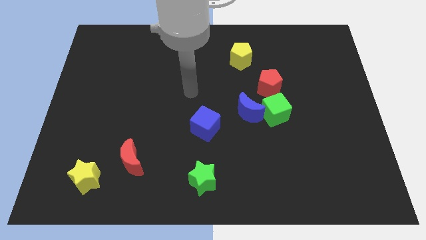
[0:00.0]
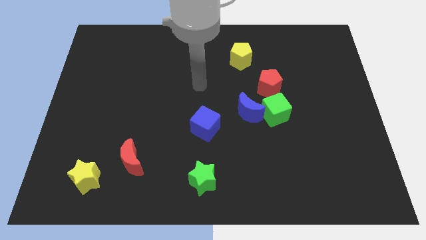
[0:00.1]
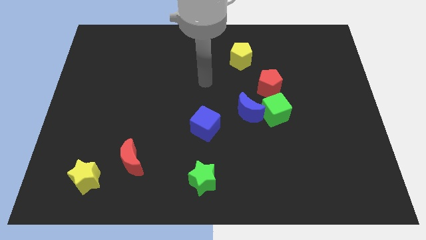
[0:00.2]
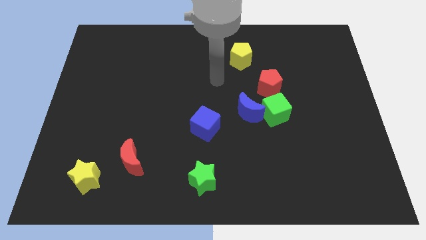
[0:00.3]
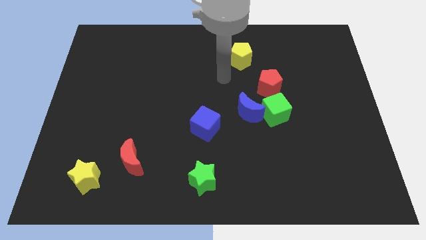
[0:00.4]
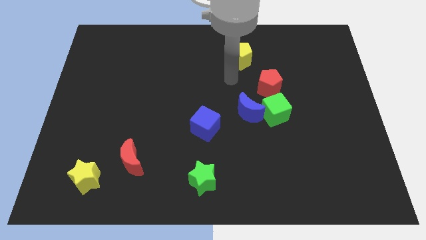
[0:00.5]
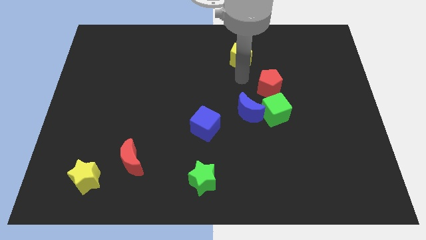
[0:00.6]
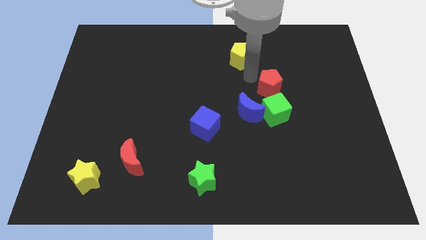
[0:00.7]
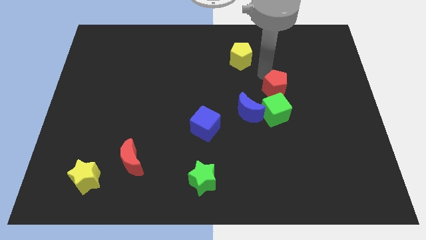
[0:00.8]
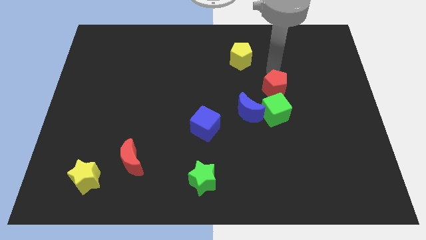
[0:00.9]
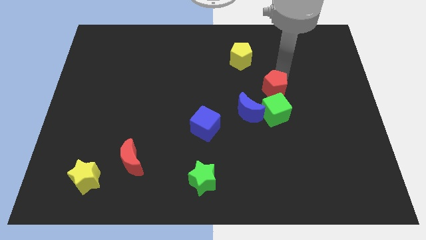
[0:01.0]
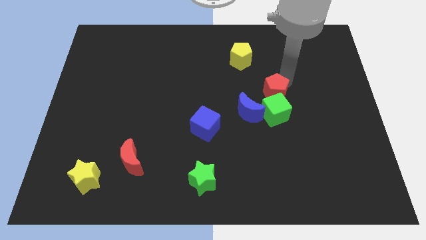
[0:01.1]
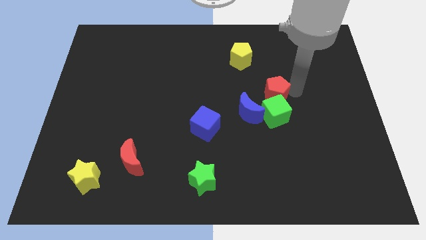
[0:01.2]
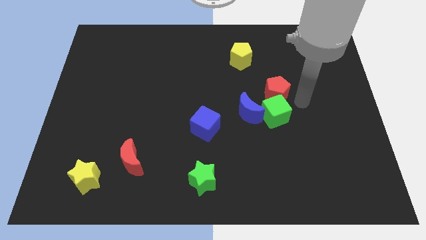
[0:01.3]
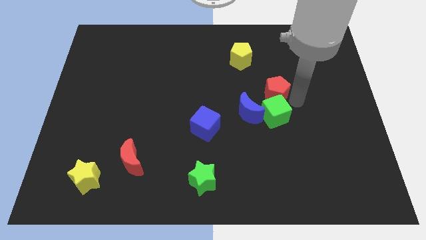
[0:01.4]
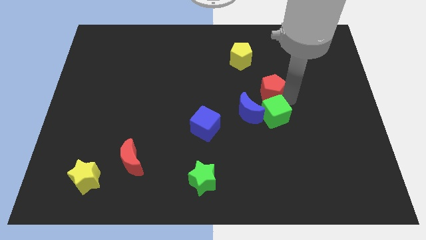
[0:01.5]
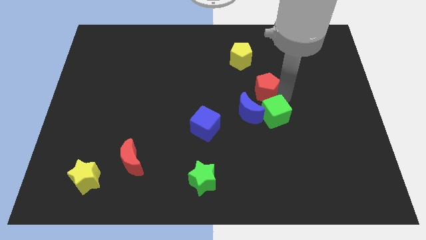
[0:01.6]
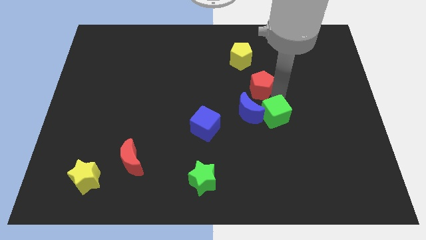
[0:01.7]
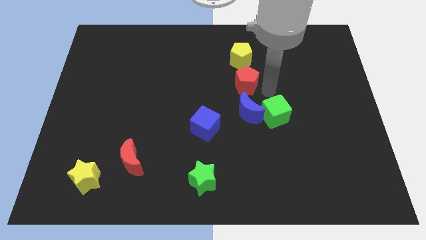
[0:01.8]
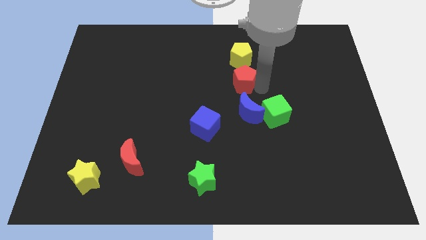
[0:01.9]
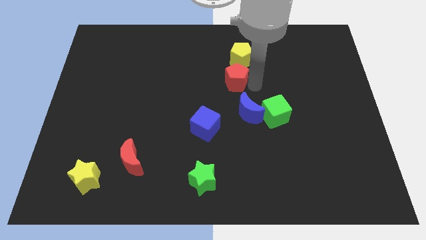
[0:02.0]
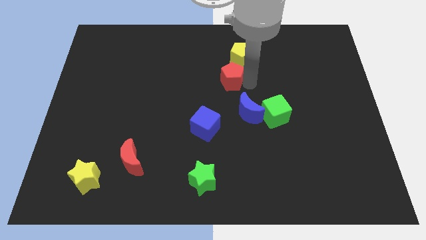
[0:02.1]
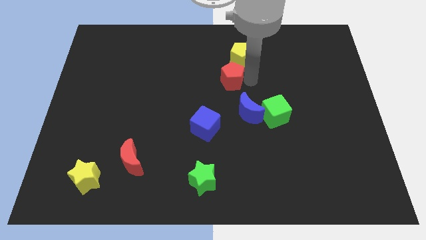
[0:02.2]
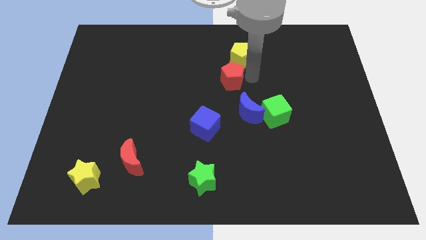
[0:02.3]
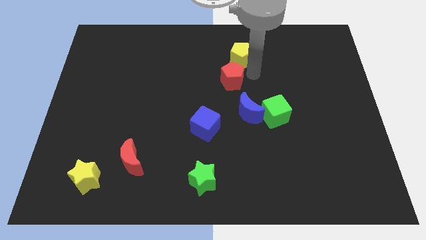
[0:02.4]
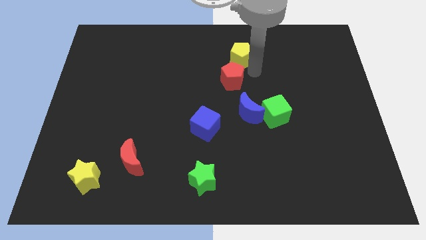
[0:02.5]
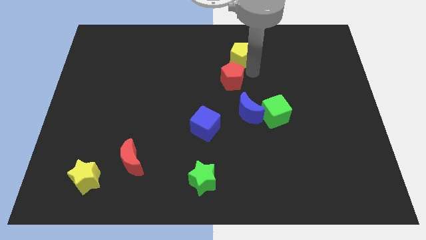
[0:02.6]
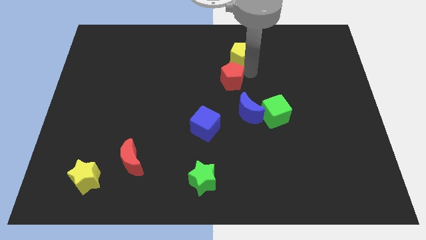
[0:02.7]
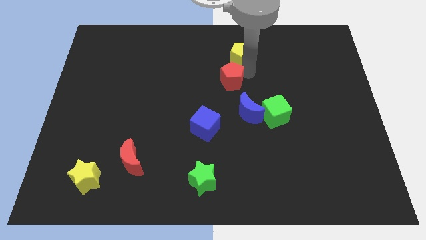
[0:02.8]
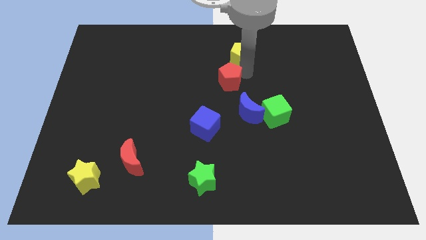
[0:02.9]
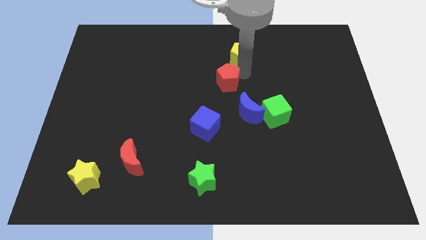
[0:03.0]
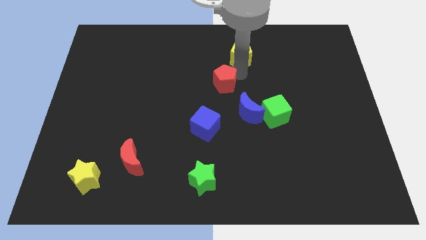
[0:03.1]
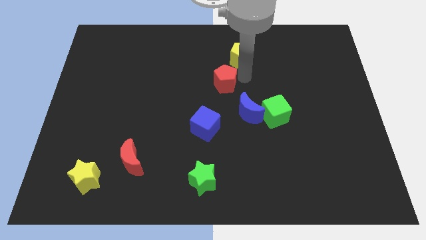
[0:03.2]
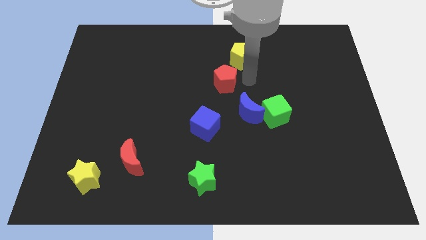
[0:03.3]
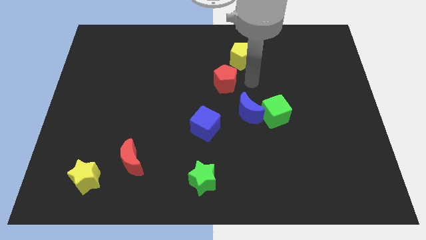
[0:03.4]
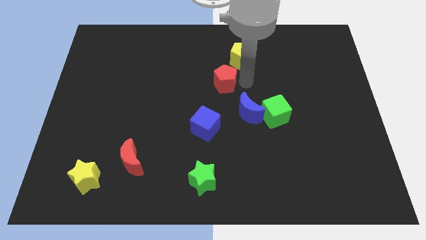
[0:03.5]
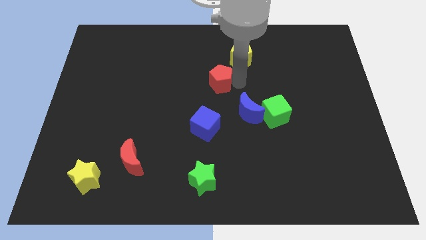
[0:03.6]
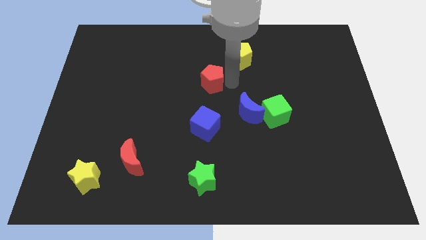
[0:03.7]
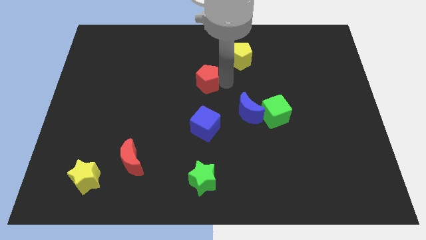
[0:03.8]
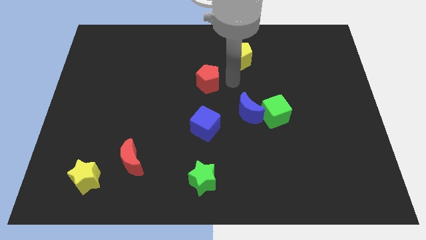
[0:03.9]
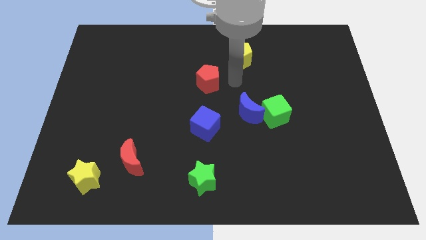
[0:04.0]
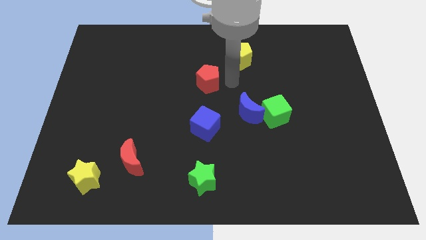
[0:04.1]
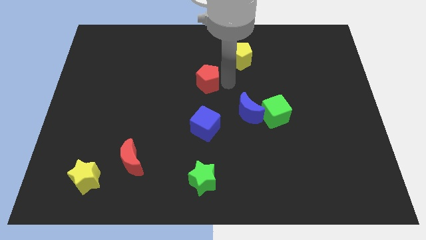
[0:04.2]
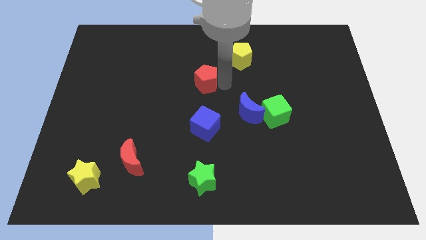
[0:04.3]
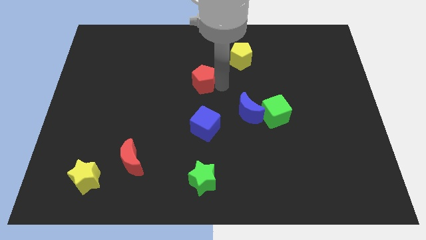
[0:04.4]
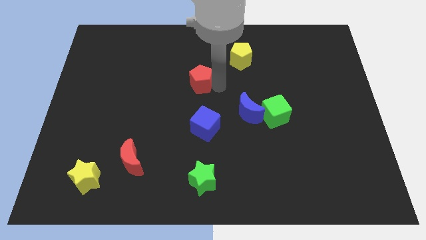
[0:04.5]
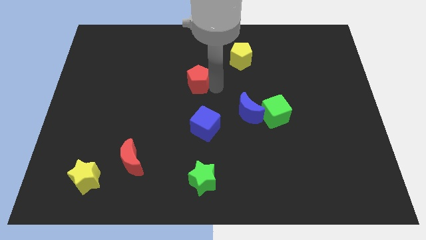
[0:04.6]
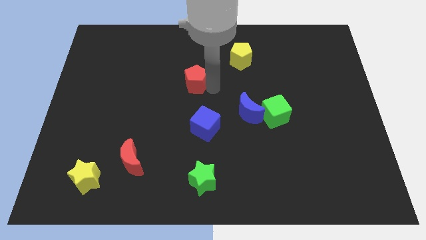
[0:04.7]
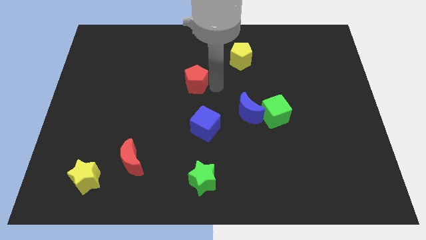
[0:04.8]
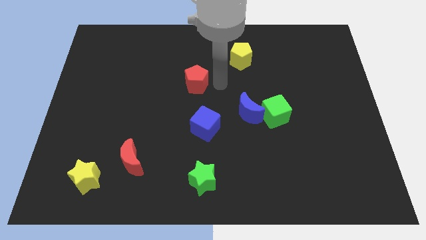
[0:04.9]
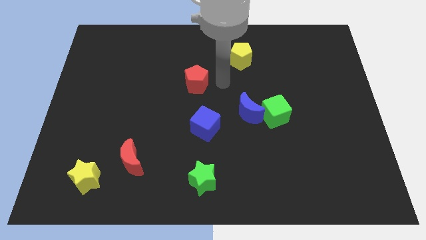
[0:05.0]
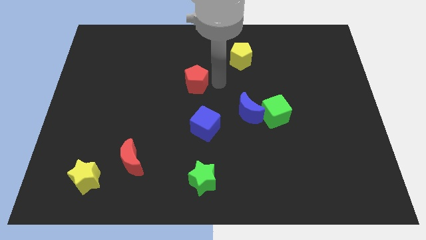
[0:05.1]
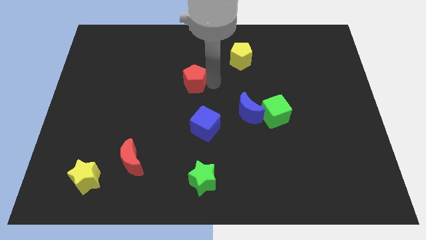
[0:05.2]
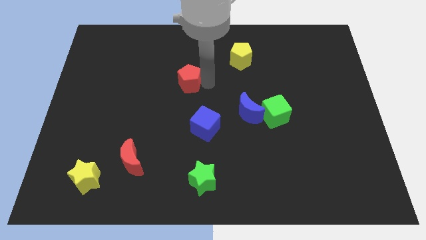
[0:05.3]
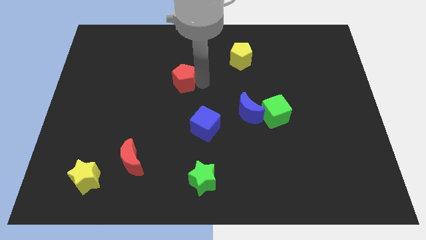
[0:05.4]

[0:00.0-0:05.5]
push the red pentagon to the left

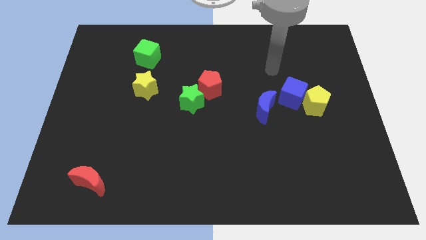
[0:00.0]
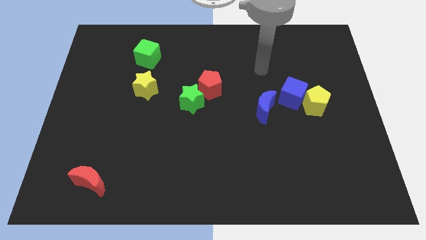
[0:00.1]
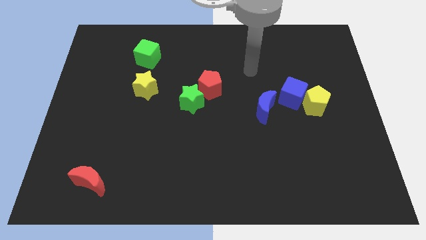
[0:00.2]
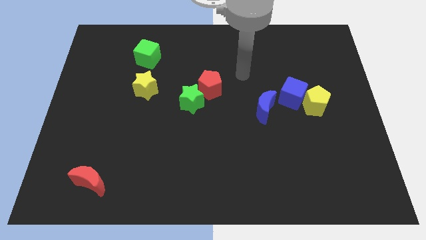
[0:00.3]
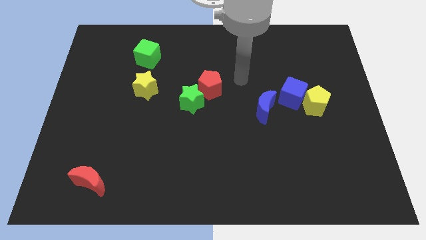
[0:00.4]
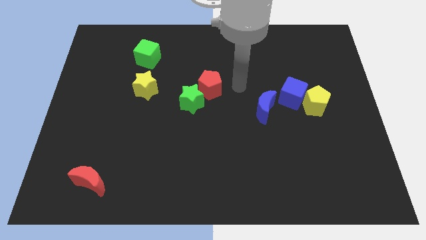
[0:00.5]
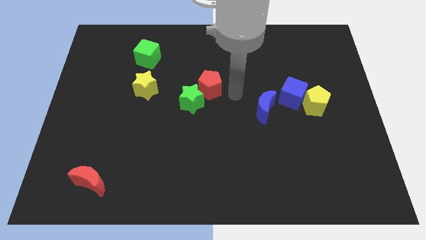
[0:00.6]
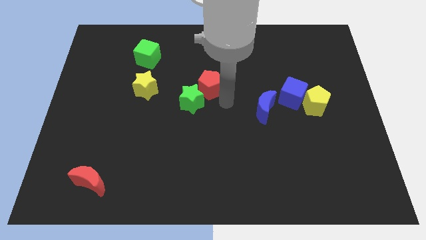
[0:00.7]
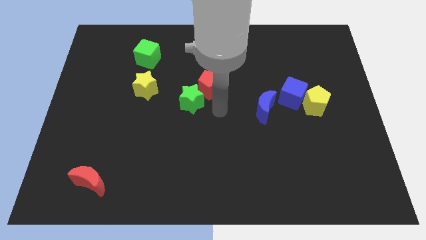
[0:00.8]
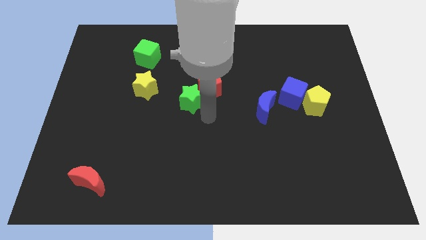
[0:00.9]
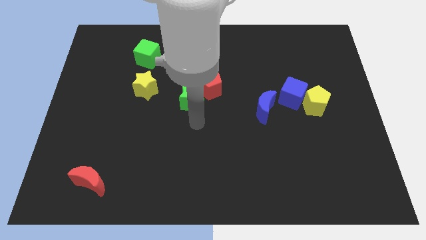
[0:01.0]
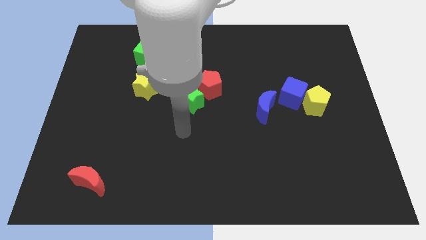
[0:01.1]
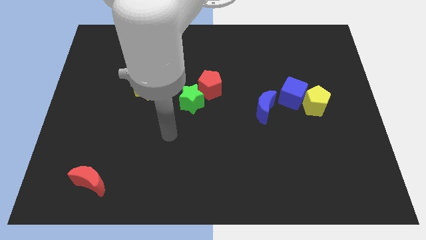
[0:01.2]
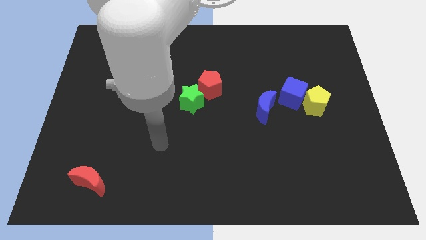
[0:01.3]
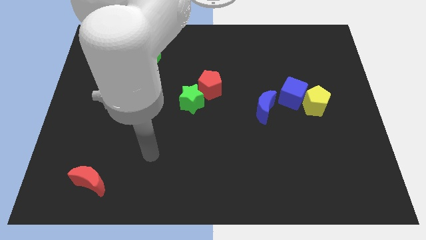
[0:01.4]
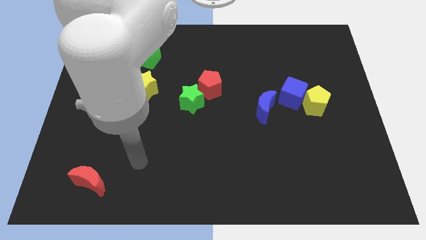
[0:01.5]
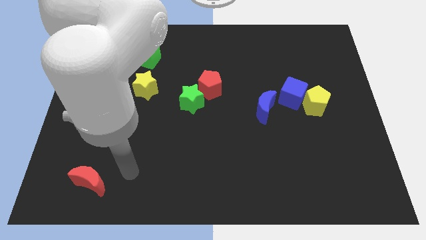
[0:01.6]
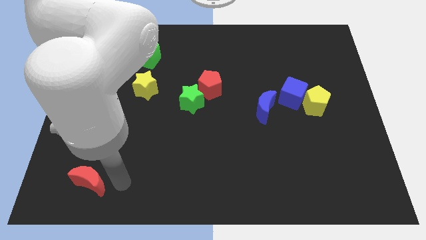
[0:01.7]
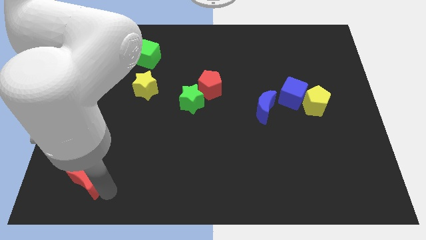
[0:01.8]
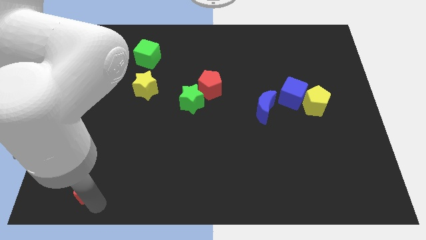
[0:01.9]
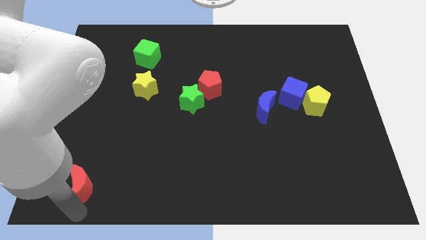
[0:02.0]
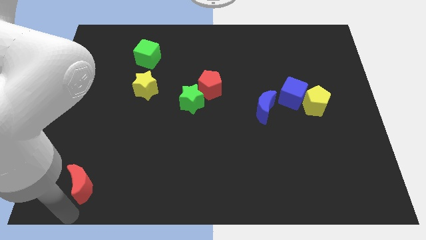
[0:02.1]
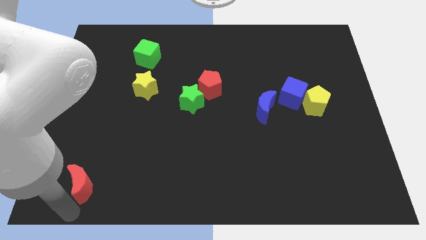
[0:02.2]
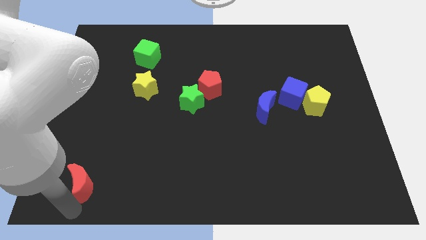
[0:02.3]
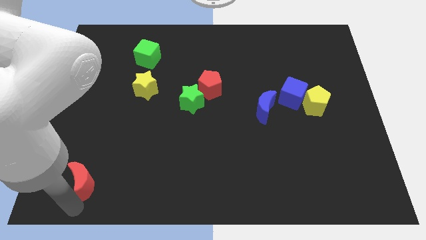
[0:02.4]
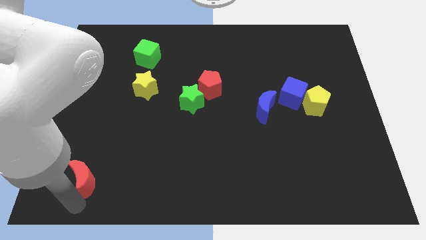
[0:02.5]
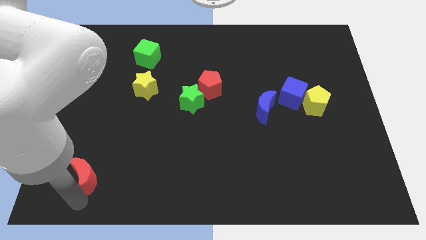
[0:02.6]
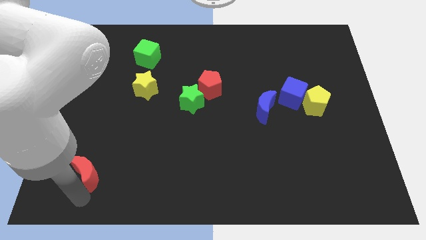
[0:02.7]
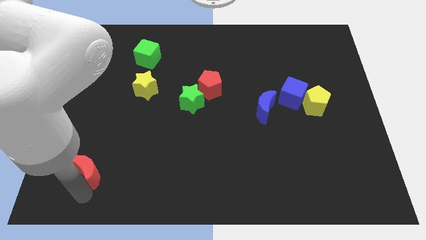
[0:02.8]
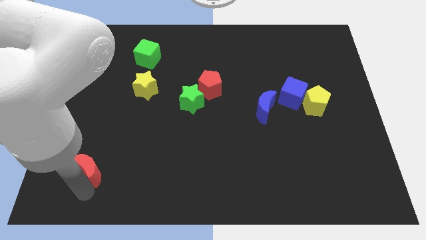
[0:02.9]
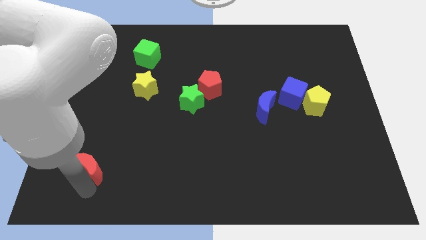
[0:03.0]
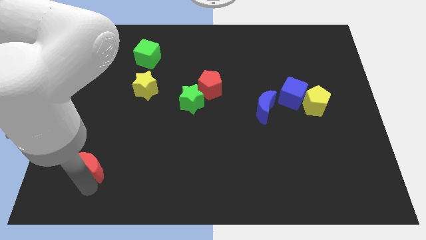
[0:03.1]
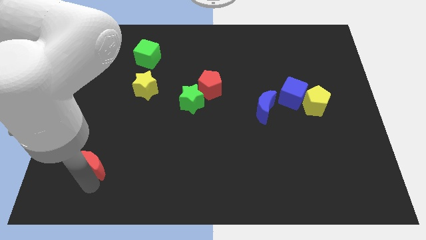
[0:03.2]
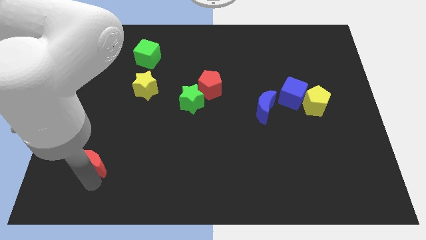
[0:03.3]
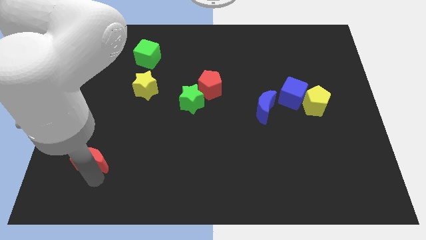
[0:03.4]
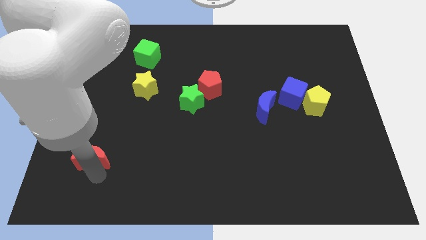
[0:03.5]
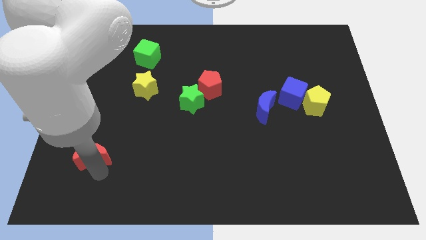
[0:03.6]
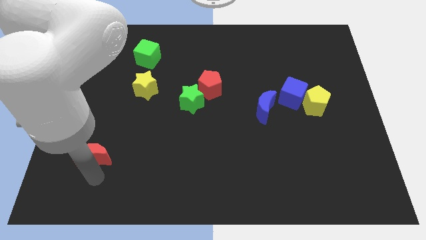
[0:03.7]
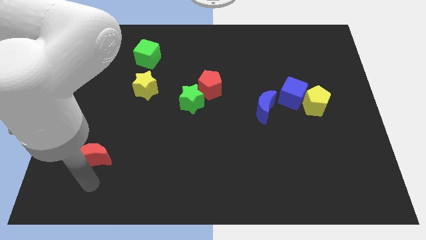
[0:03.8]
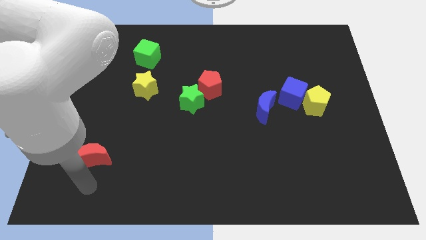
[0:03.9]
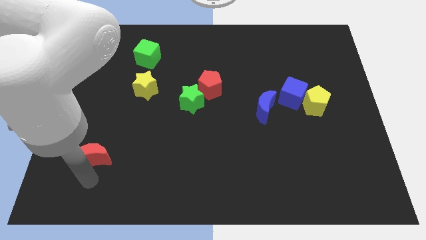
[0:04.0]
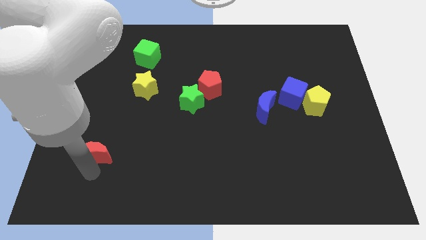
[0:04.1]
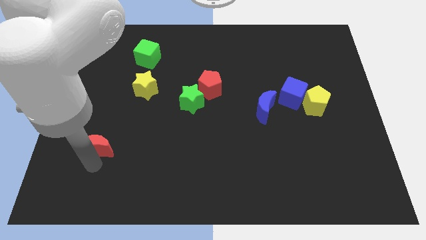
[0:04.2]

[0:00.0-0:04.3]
push the red moon somewhat upwards
